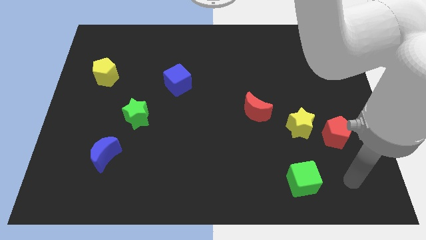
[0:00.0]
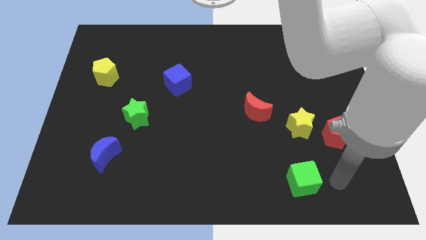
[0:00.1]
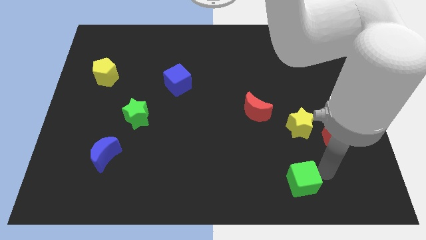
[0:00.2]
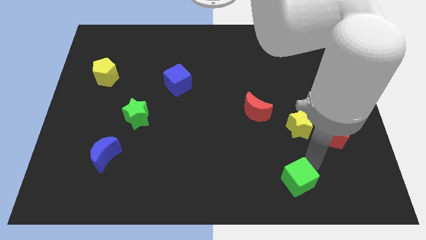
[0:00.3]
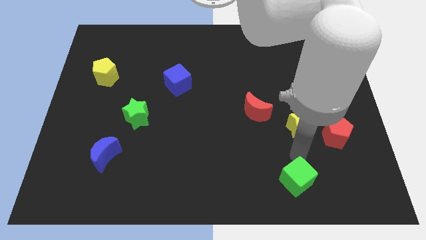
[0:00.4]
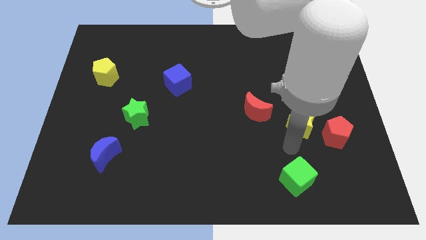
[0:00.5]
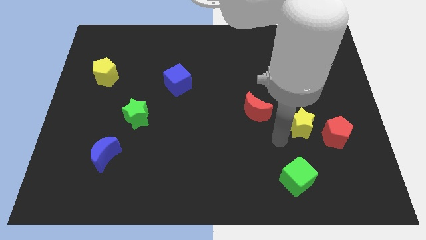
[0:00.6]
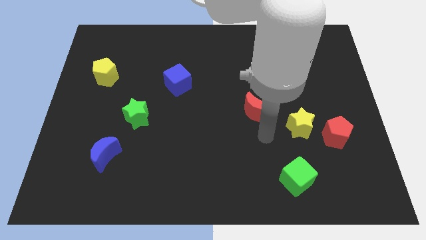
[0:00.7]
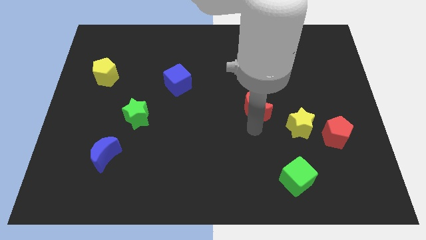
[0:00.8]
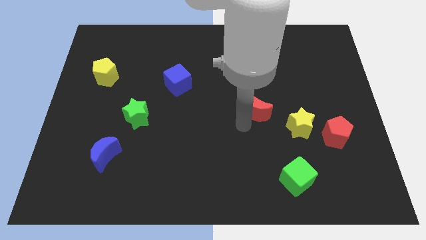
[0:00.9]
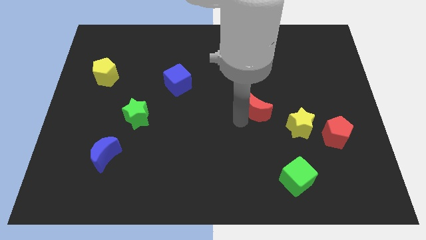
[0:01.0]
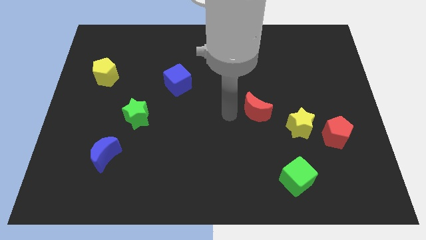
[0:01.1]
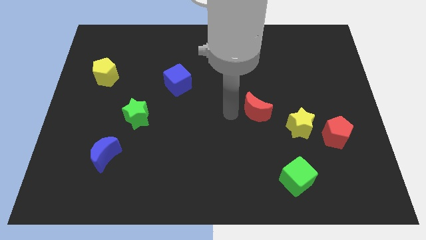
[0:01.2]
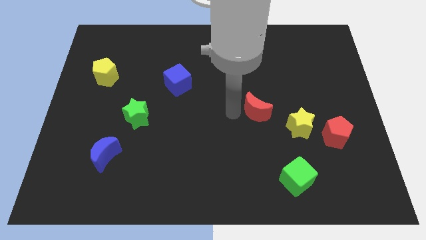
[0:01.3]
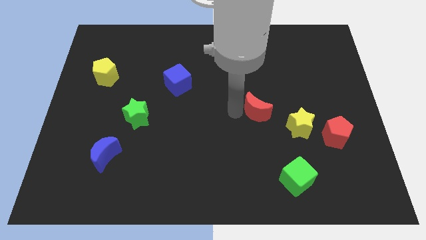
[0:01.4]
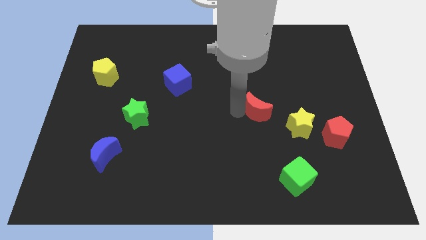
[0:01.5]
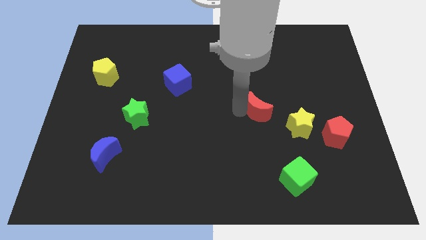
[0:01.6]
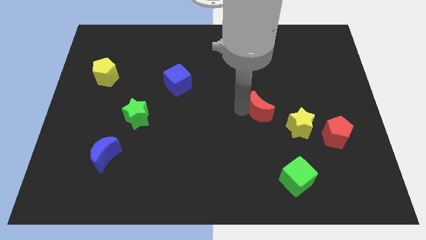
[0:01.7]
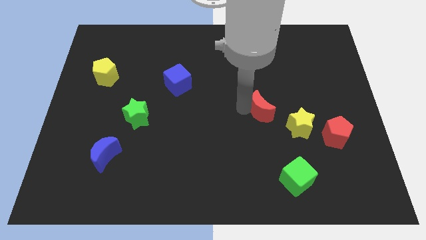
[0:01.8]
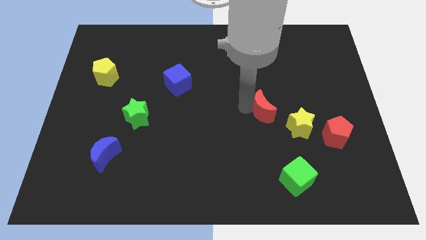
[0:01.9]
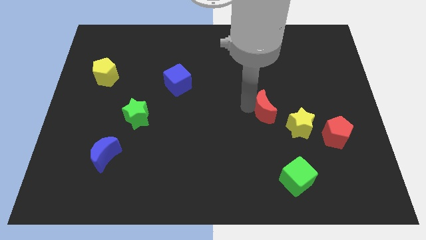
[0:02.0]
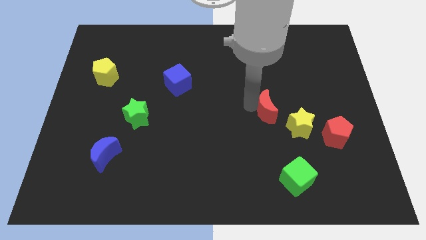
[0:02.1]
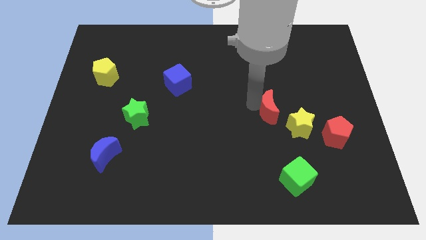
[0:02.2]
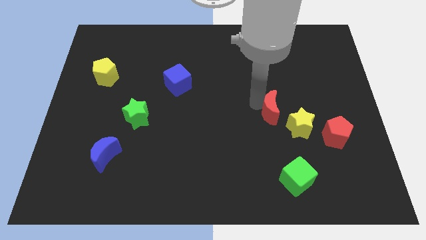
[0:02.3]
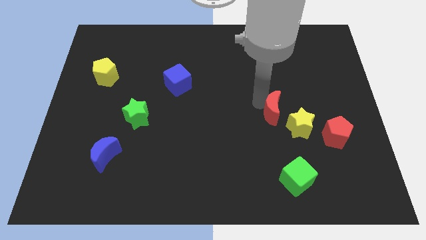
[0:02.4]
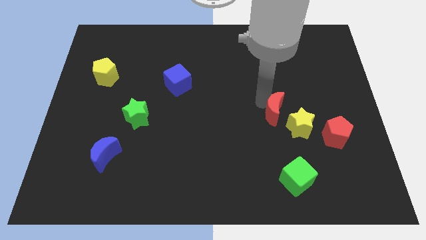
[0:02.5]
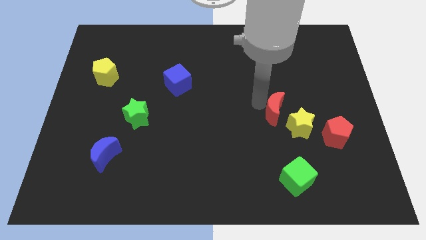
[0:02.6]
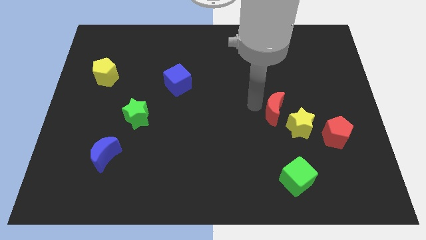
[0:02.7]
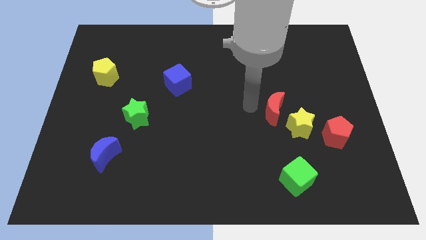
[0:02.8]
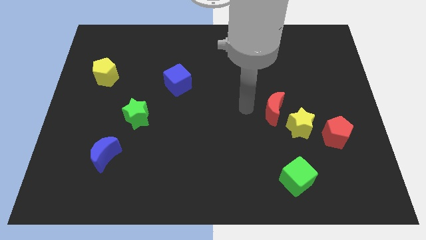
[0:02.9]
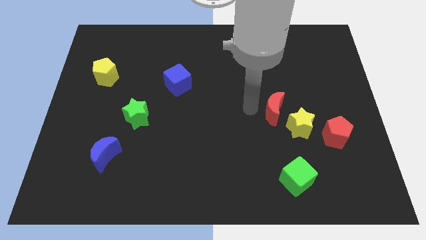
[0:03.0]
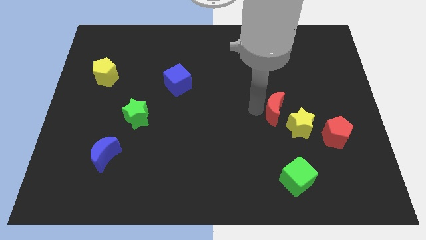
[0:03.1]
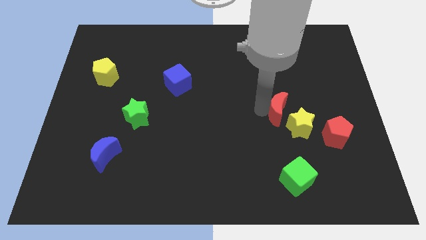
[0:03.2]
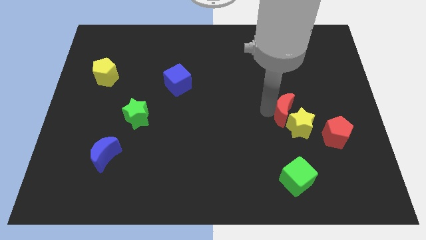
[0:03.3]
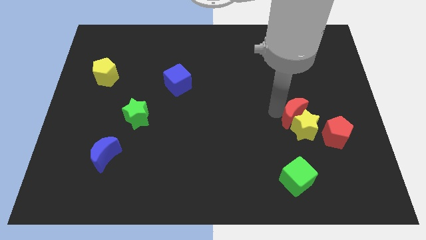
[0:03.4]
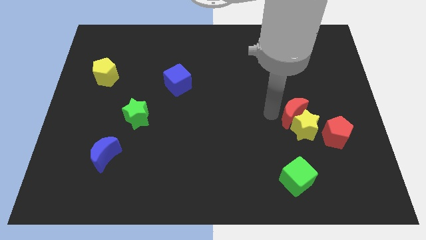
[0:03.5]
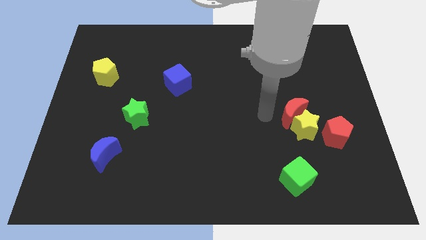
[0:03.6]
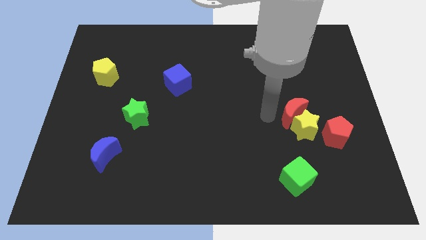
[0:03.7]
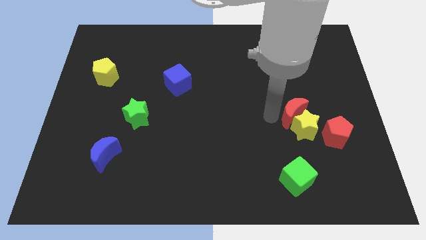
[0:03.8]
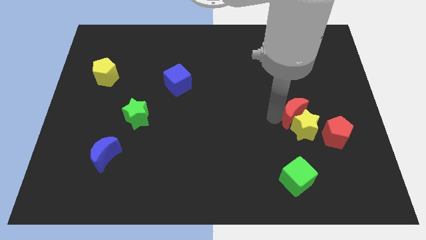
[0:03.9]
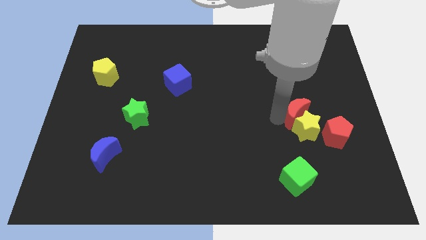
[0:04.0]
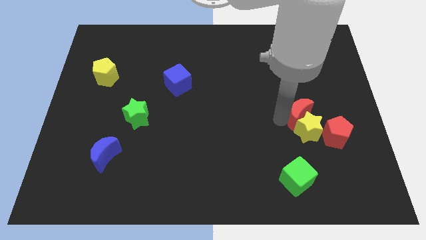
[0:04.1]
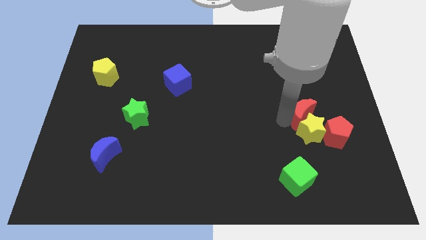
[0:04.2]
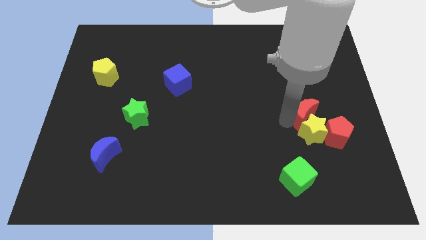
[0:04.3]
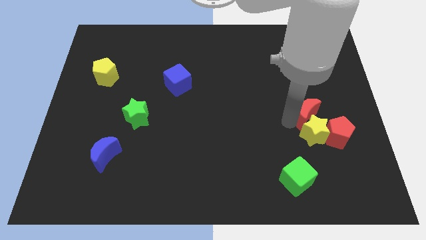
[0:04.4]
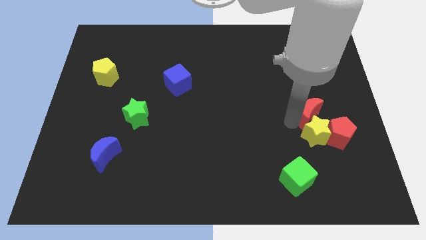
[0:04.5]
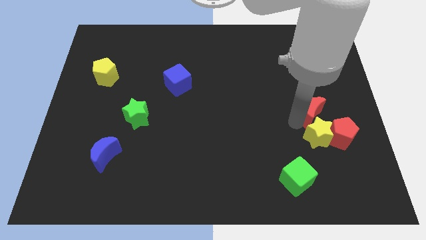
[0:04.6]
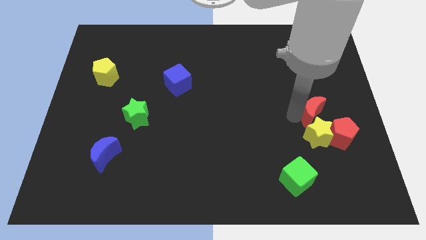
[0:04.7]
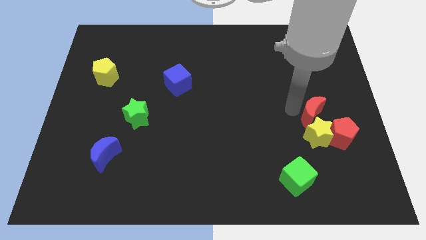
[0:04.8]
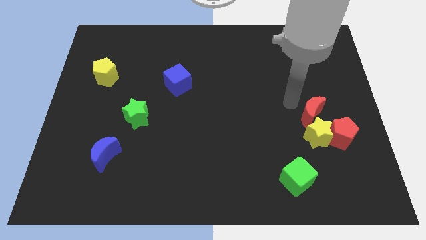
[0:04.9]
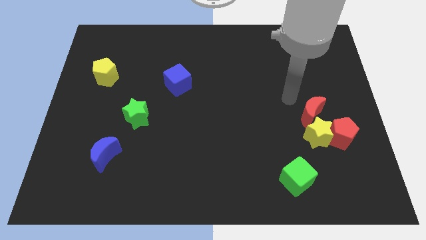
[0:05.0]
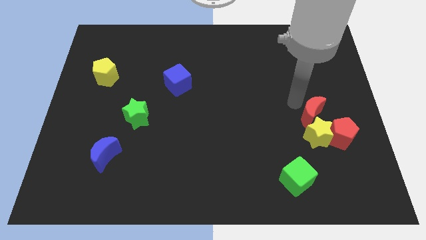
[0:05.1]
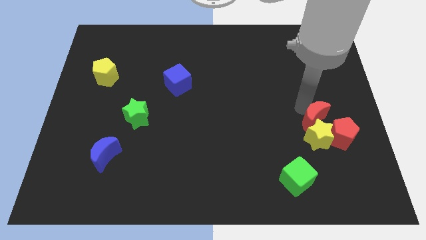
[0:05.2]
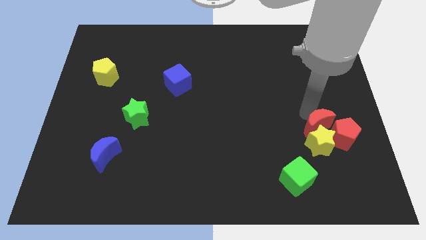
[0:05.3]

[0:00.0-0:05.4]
put the red moon close to the red pentagon

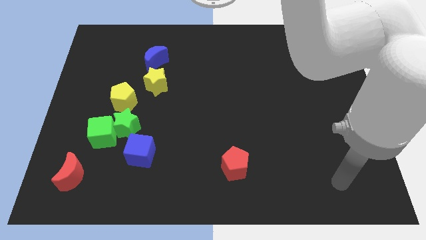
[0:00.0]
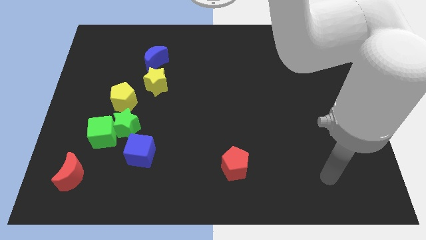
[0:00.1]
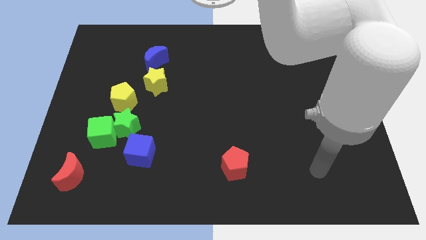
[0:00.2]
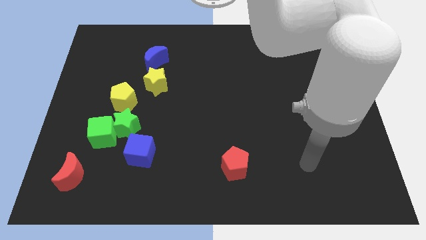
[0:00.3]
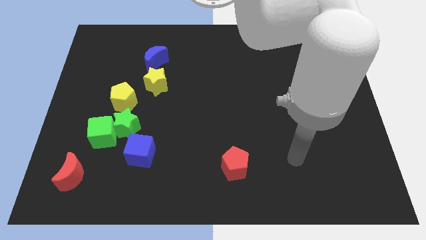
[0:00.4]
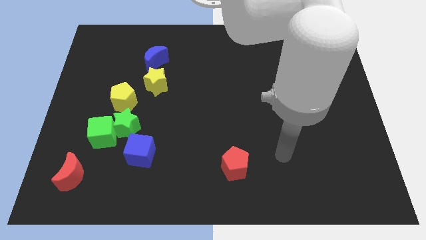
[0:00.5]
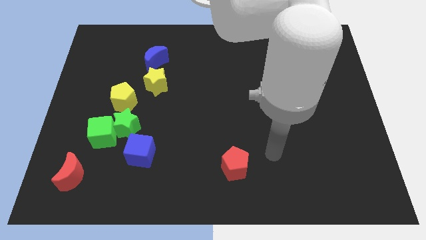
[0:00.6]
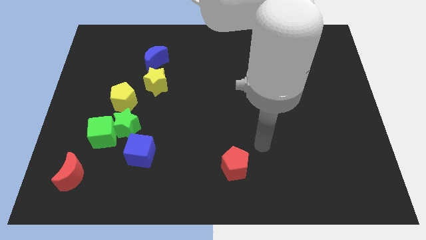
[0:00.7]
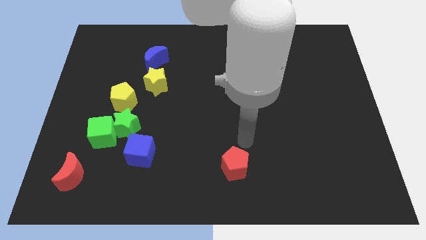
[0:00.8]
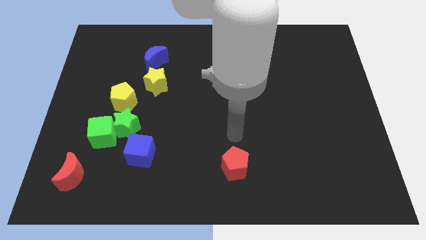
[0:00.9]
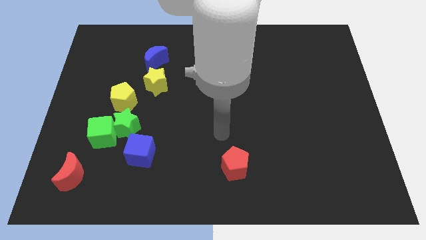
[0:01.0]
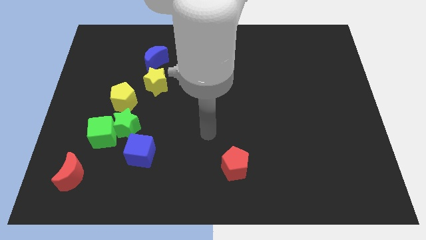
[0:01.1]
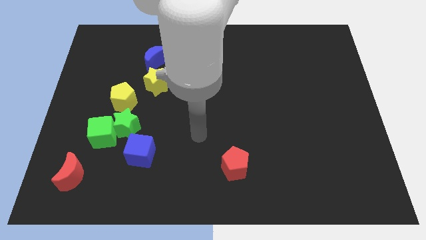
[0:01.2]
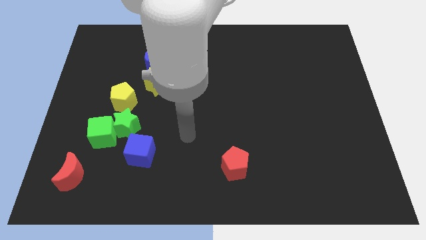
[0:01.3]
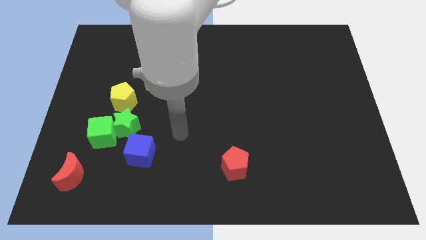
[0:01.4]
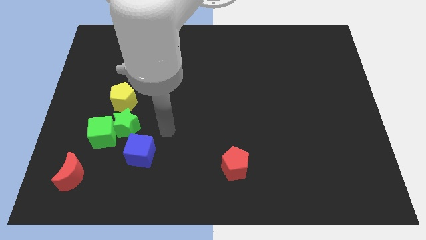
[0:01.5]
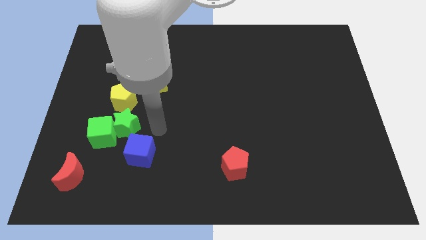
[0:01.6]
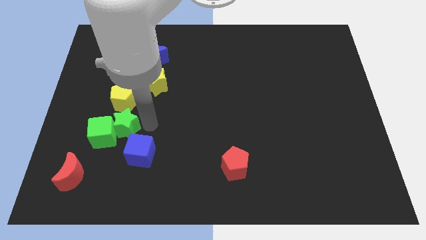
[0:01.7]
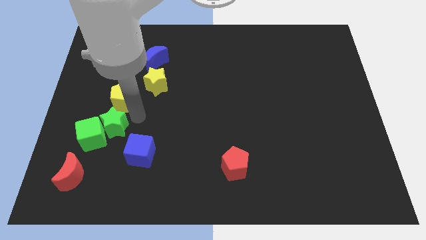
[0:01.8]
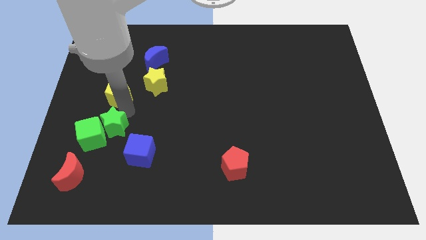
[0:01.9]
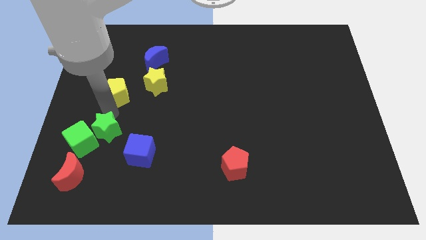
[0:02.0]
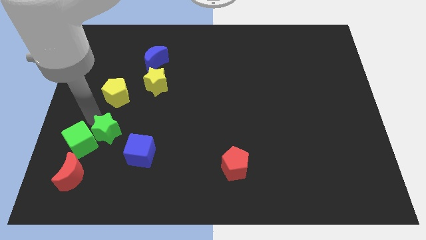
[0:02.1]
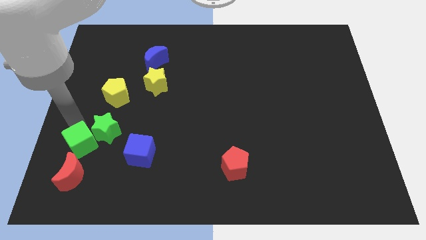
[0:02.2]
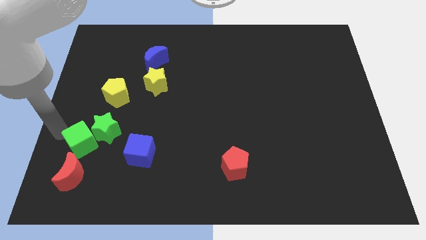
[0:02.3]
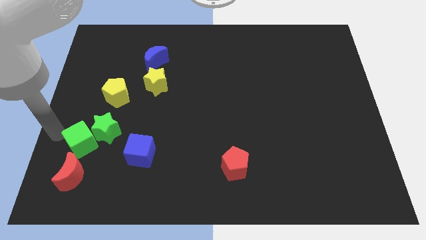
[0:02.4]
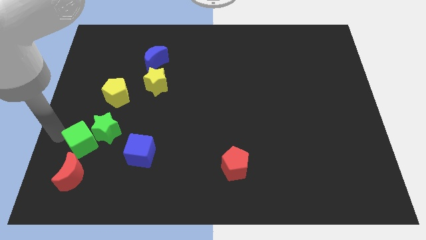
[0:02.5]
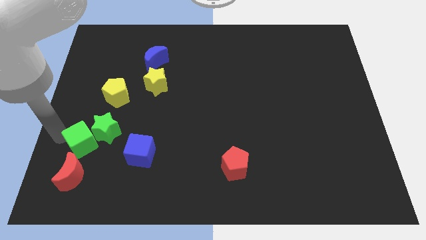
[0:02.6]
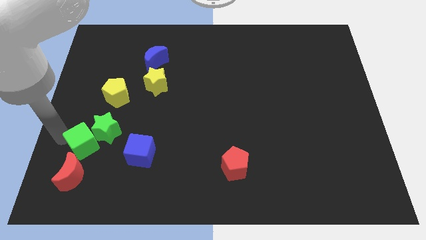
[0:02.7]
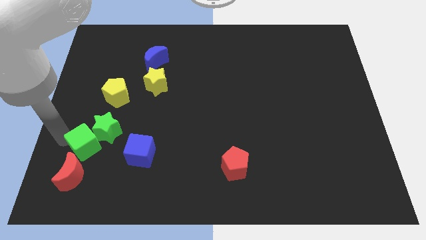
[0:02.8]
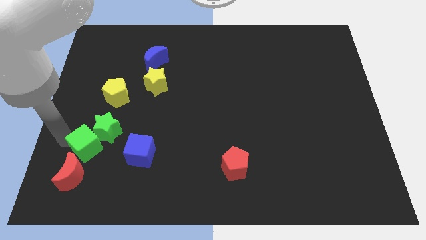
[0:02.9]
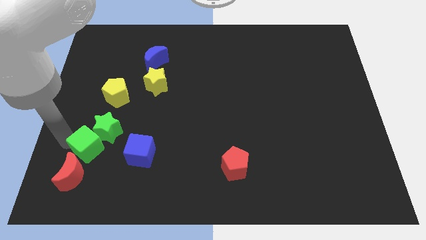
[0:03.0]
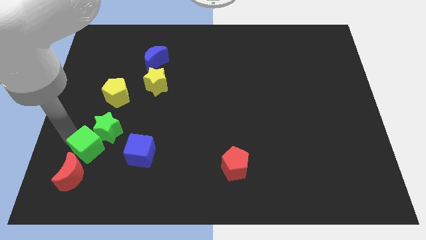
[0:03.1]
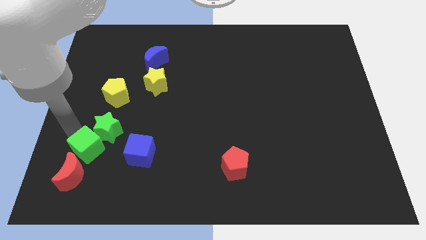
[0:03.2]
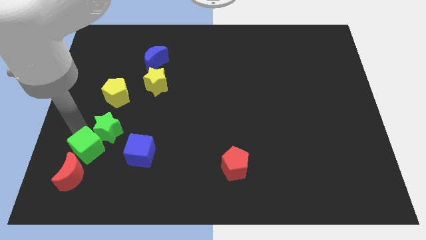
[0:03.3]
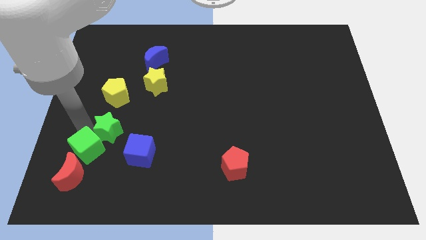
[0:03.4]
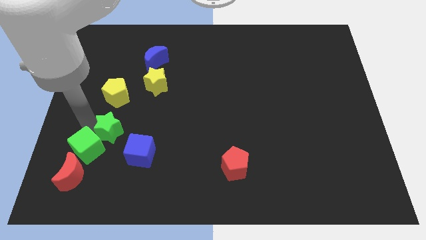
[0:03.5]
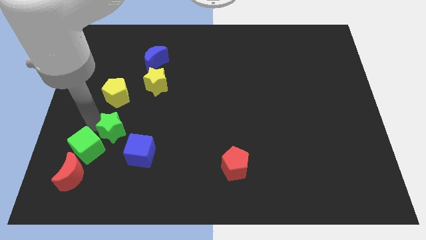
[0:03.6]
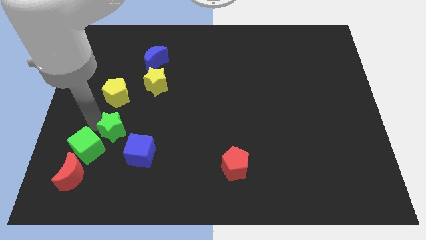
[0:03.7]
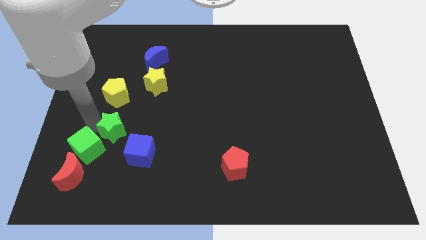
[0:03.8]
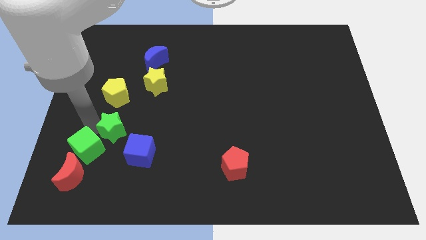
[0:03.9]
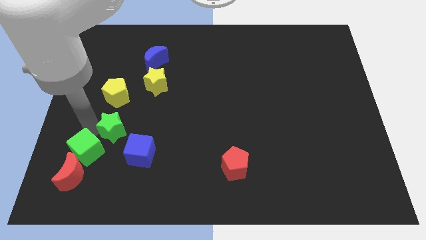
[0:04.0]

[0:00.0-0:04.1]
move the green cube next to the red moon
